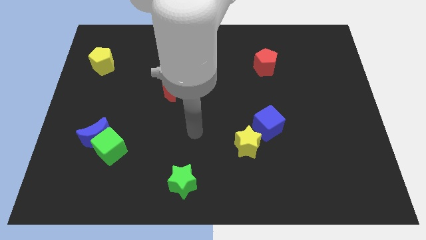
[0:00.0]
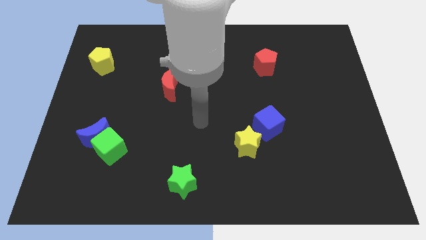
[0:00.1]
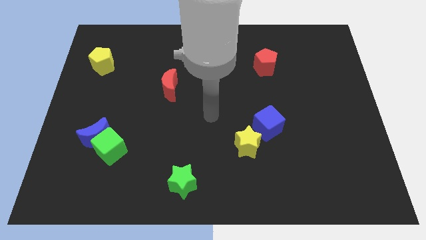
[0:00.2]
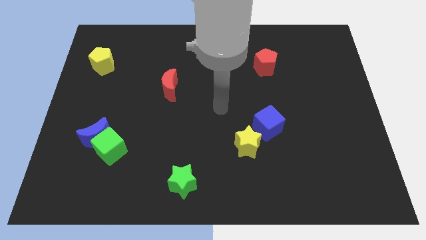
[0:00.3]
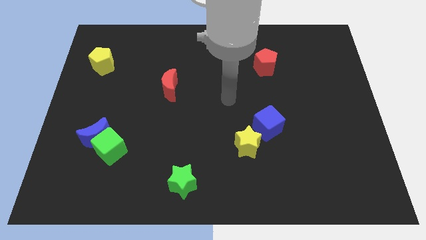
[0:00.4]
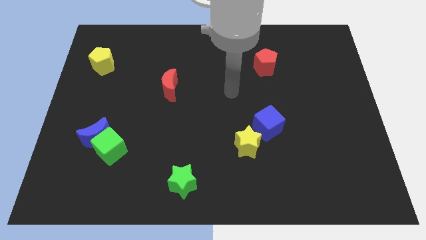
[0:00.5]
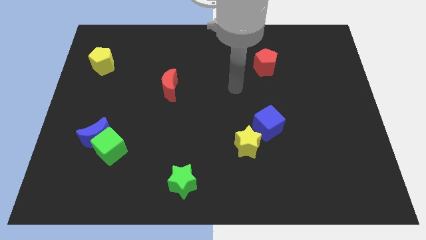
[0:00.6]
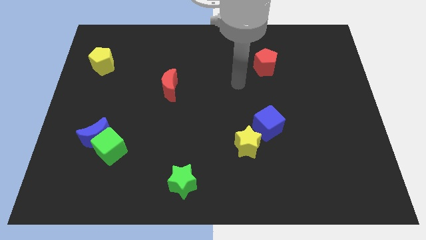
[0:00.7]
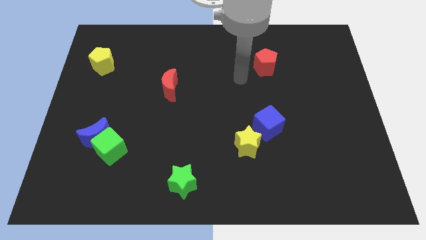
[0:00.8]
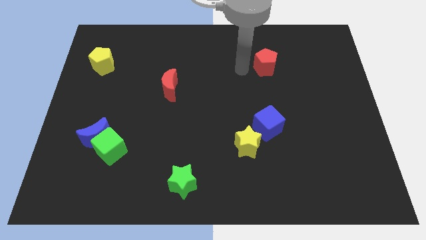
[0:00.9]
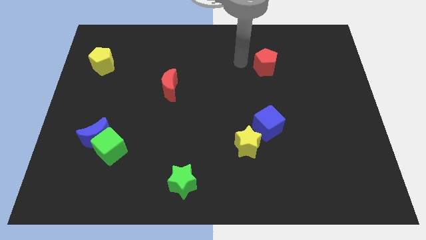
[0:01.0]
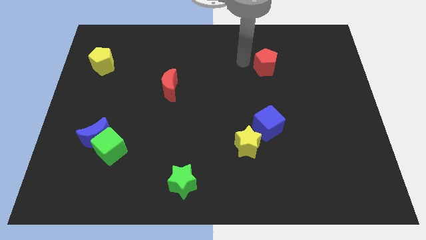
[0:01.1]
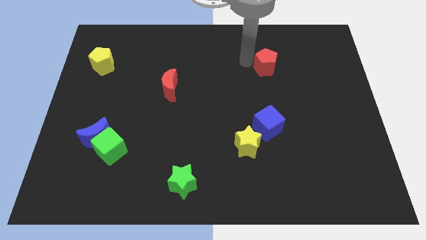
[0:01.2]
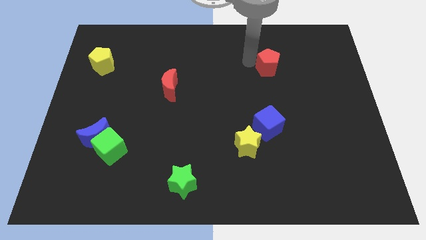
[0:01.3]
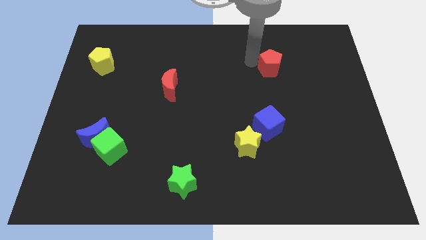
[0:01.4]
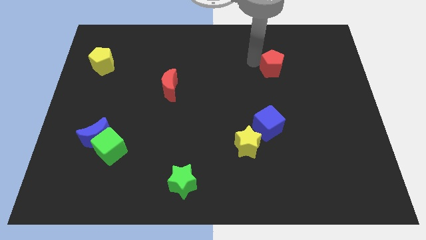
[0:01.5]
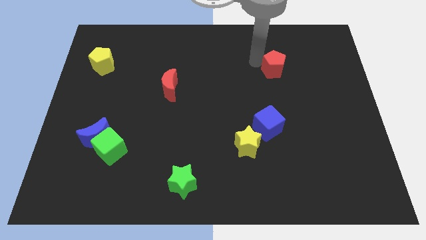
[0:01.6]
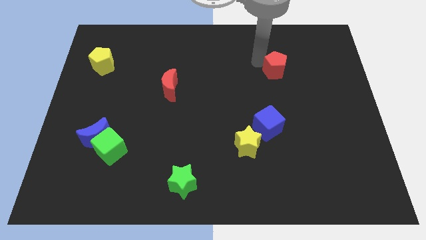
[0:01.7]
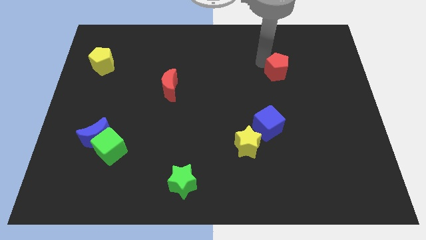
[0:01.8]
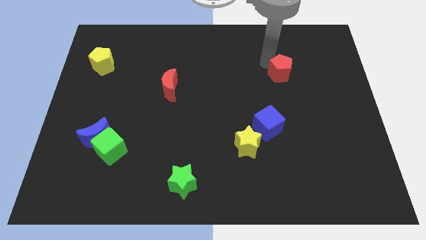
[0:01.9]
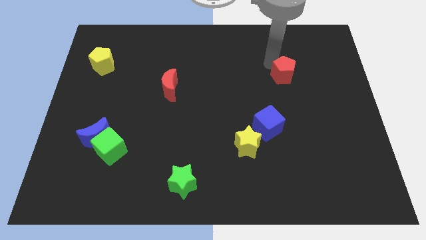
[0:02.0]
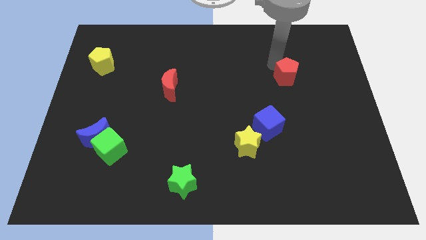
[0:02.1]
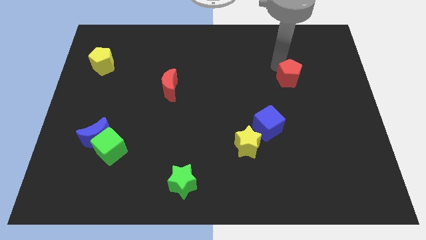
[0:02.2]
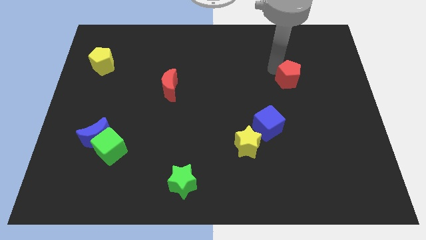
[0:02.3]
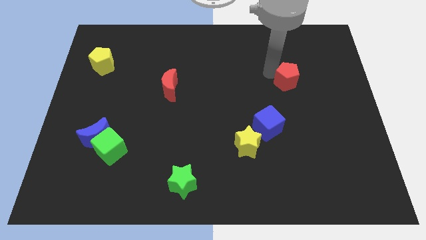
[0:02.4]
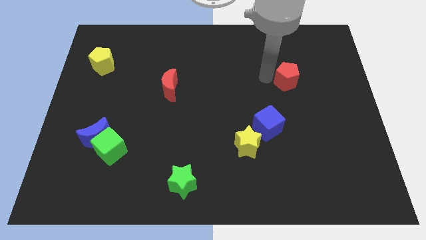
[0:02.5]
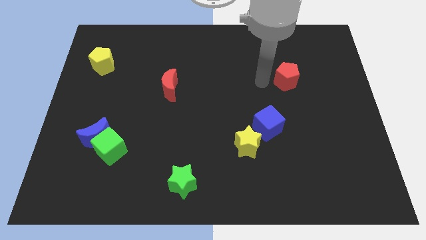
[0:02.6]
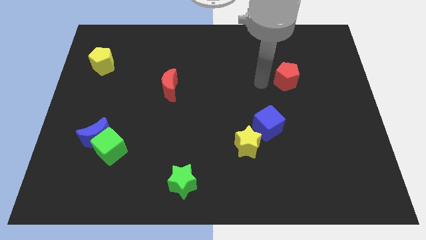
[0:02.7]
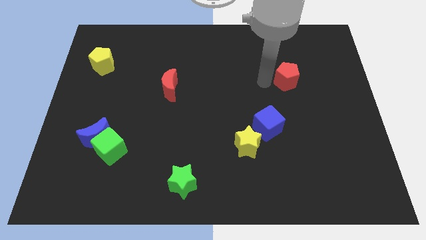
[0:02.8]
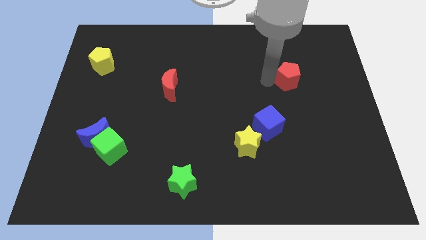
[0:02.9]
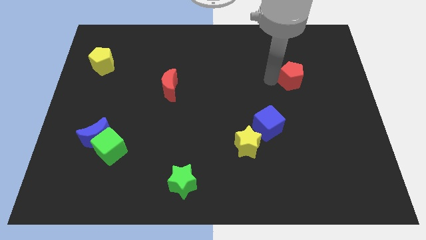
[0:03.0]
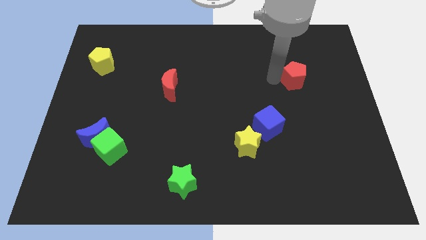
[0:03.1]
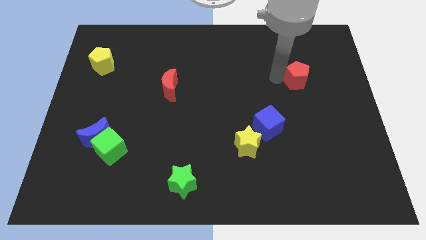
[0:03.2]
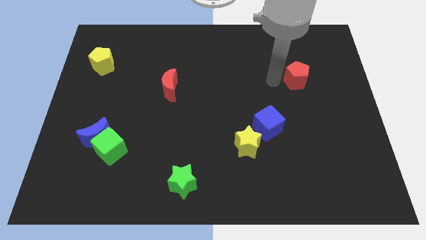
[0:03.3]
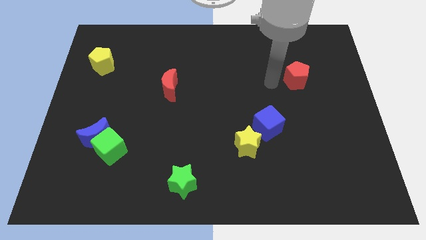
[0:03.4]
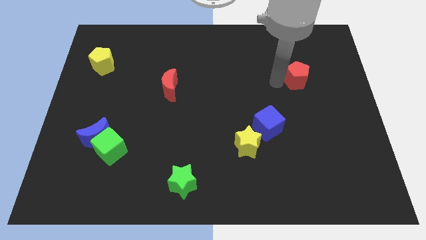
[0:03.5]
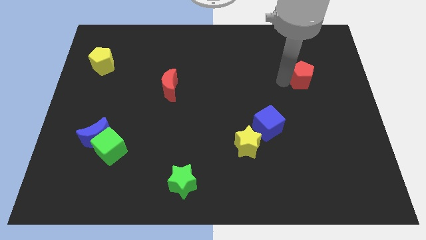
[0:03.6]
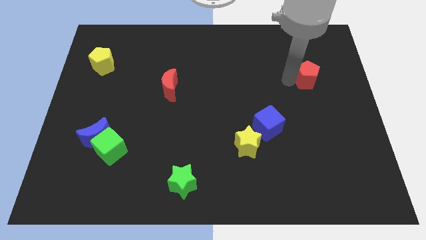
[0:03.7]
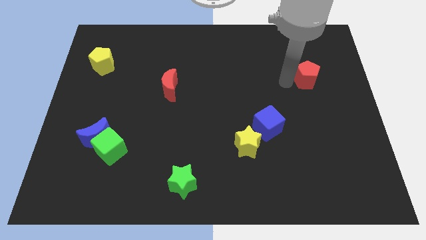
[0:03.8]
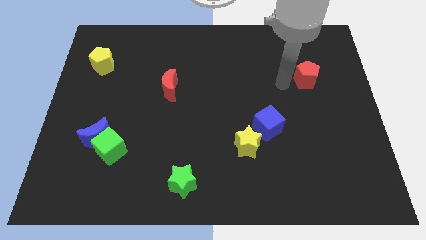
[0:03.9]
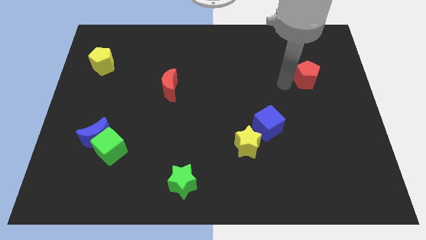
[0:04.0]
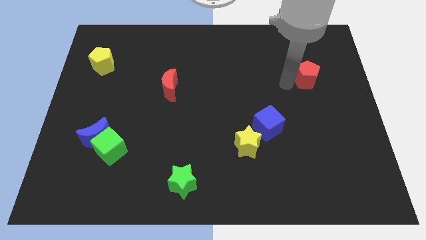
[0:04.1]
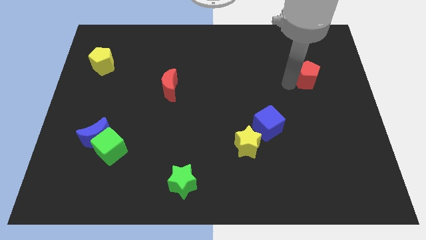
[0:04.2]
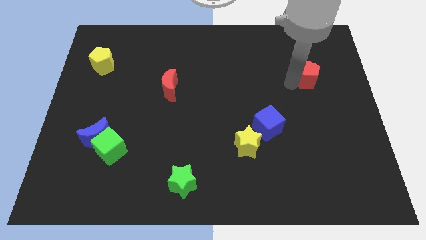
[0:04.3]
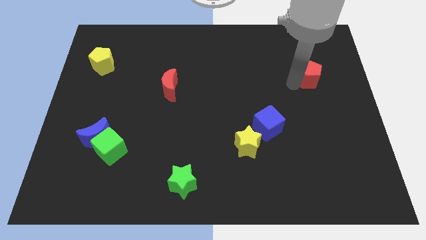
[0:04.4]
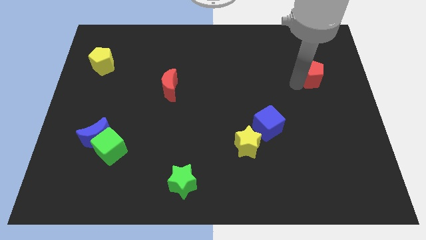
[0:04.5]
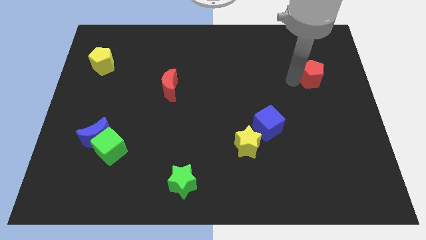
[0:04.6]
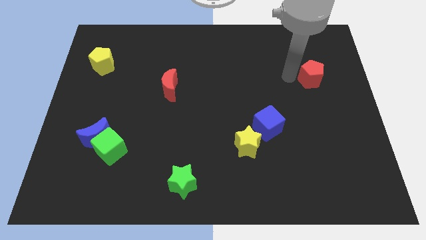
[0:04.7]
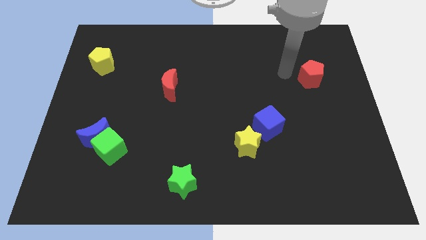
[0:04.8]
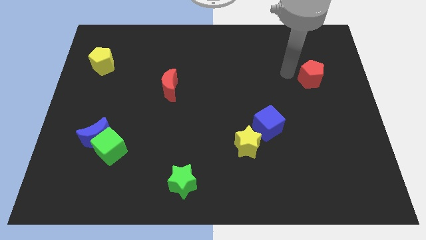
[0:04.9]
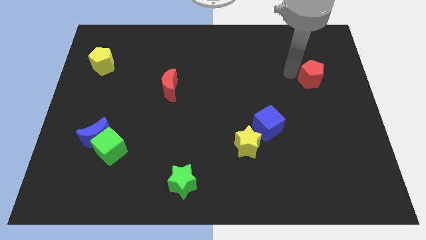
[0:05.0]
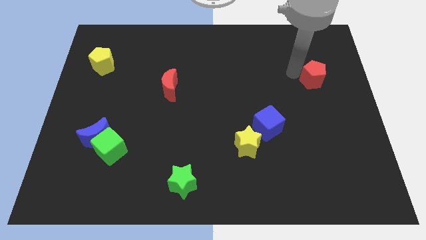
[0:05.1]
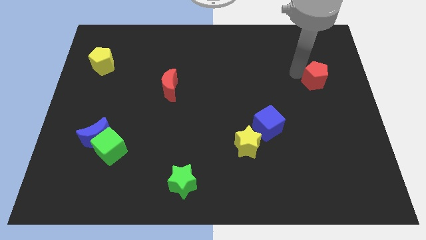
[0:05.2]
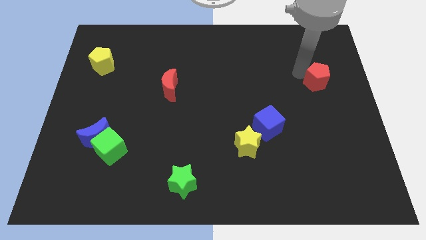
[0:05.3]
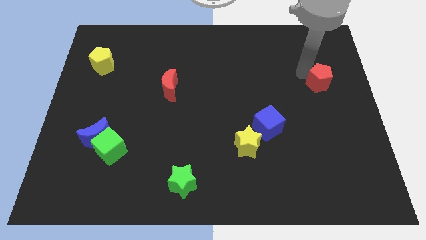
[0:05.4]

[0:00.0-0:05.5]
slide the red pentagon to the center right

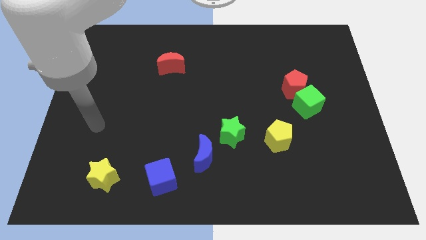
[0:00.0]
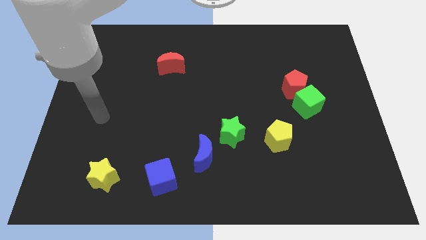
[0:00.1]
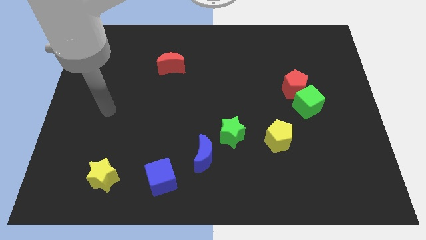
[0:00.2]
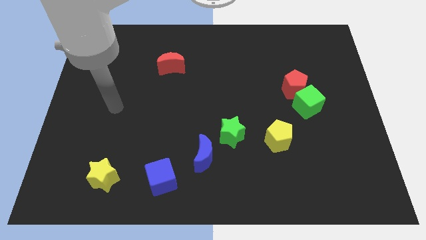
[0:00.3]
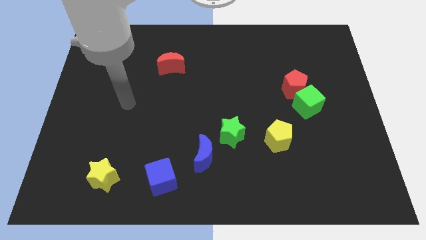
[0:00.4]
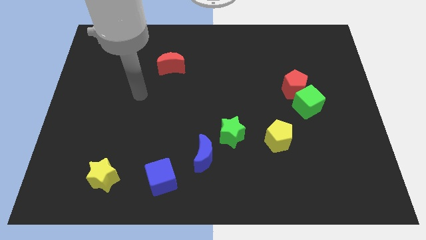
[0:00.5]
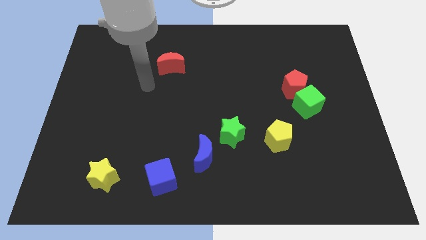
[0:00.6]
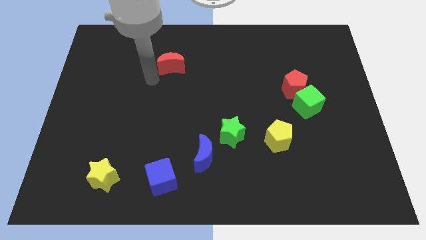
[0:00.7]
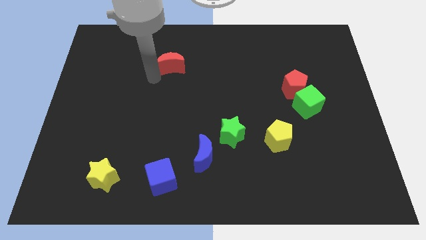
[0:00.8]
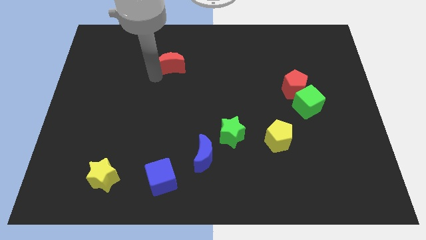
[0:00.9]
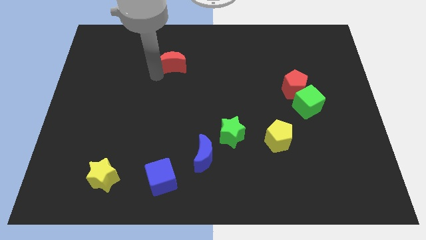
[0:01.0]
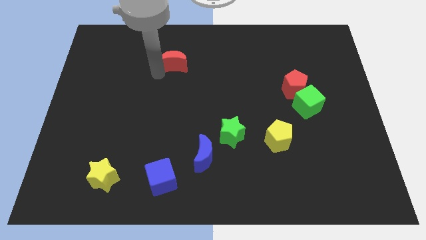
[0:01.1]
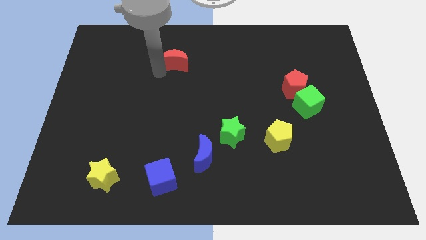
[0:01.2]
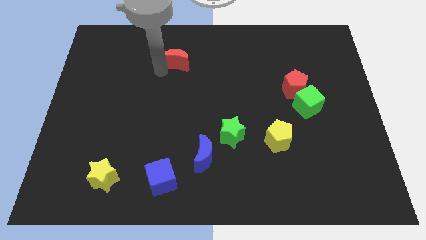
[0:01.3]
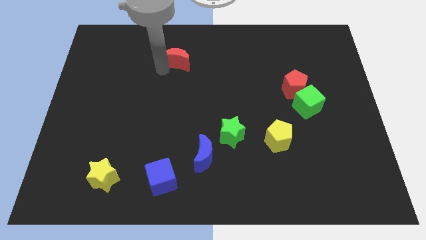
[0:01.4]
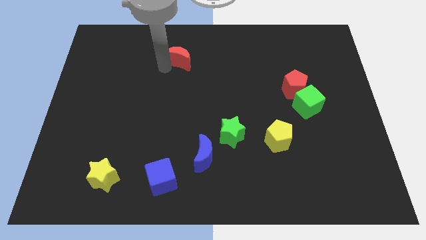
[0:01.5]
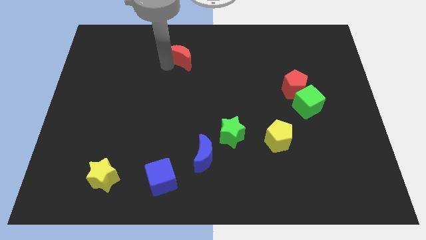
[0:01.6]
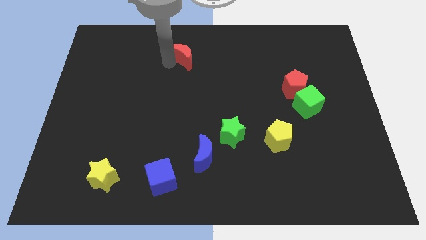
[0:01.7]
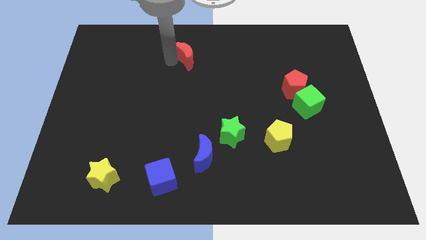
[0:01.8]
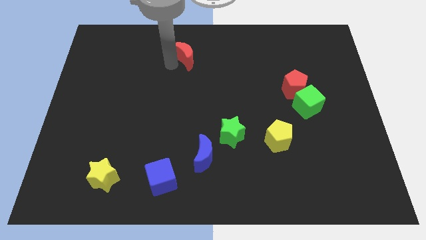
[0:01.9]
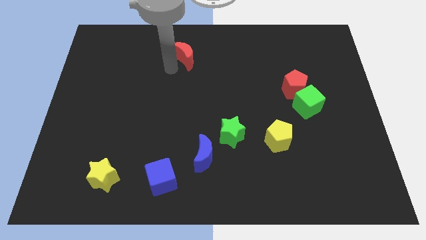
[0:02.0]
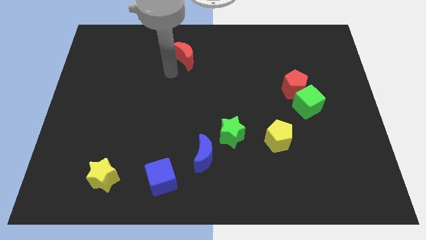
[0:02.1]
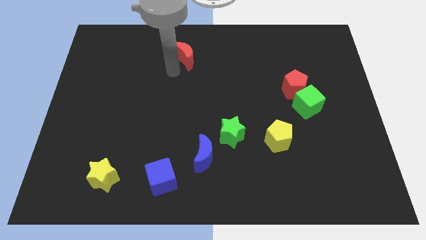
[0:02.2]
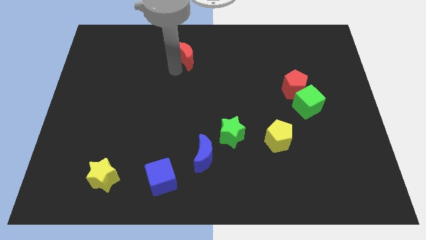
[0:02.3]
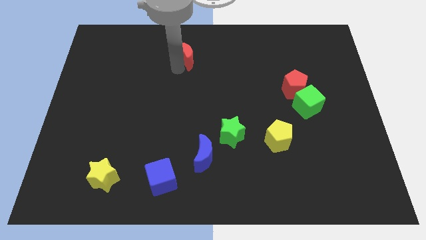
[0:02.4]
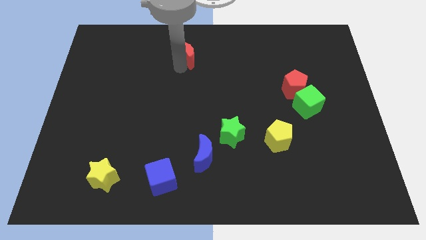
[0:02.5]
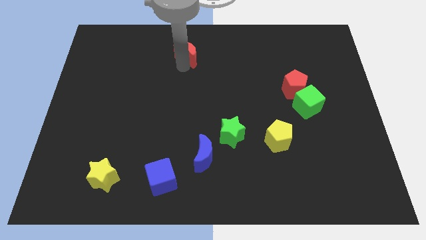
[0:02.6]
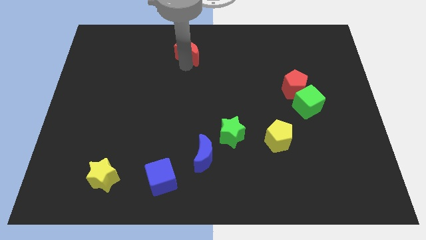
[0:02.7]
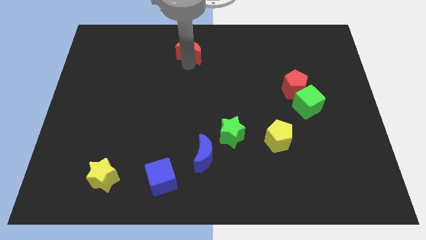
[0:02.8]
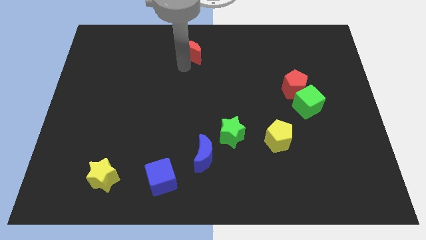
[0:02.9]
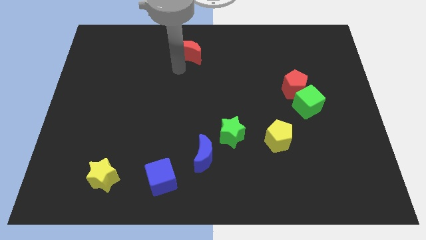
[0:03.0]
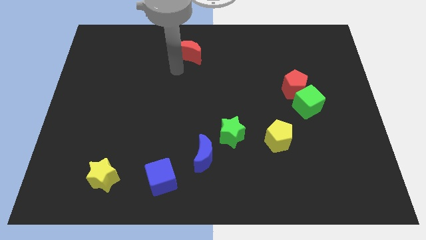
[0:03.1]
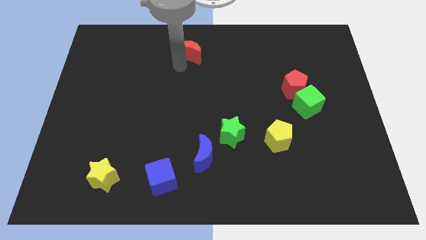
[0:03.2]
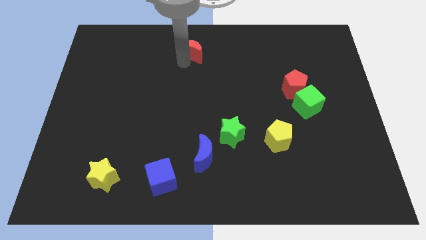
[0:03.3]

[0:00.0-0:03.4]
put the red moon to the top
